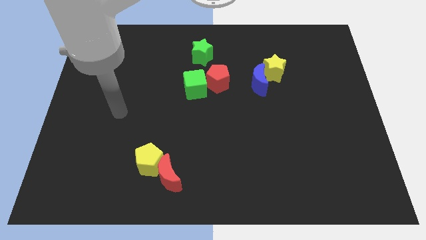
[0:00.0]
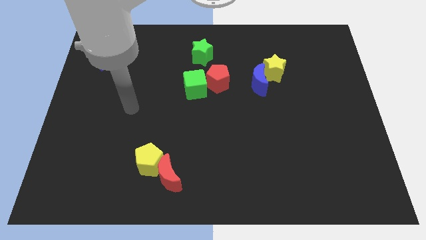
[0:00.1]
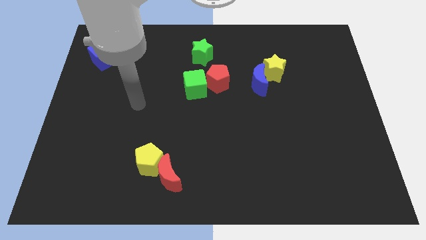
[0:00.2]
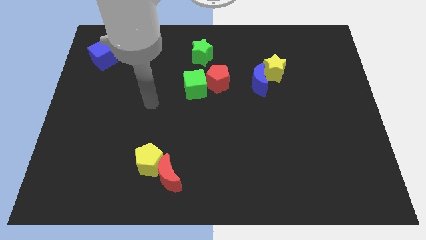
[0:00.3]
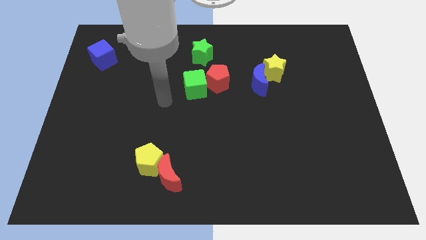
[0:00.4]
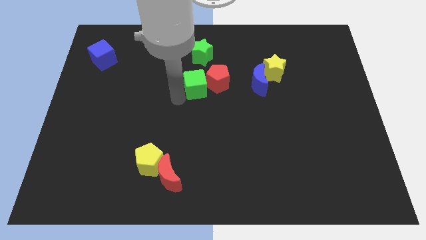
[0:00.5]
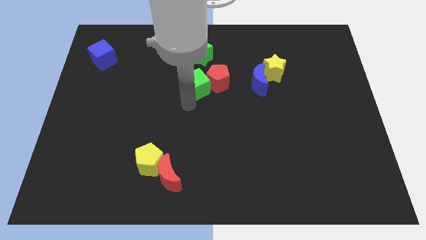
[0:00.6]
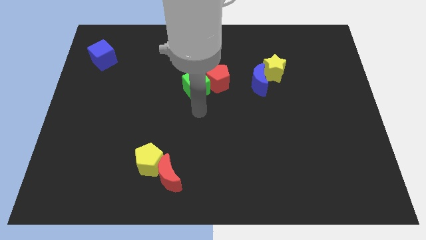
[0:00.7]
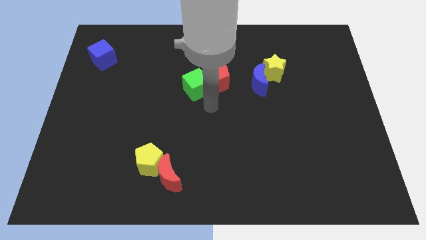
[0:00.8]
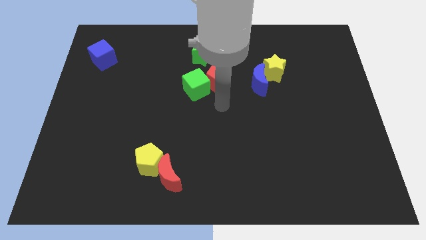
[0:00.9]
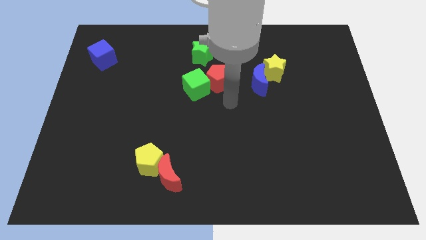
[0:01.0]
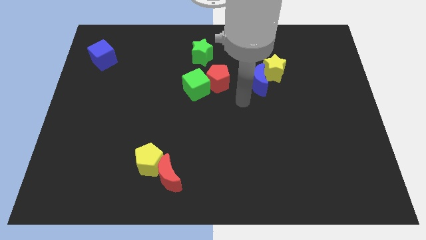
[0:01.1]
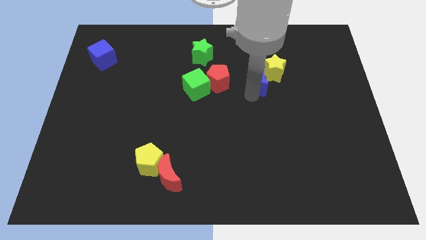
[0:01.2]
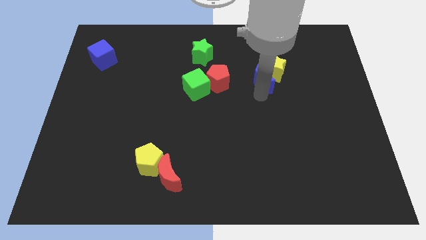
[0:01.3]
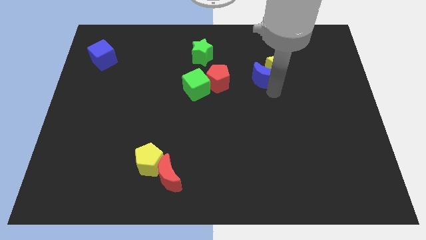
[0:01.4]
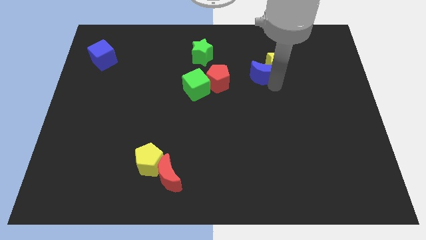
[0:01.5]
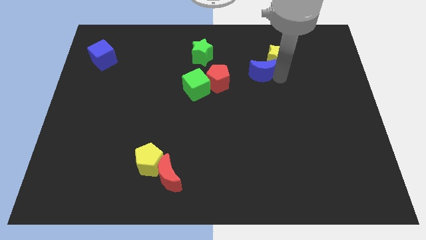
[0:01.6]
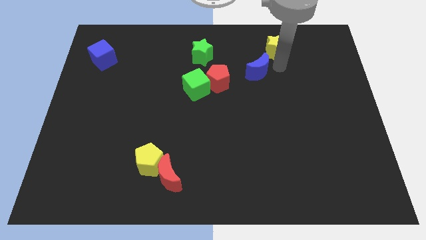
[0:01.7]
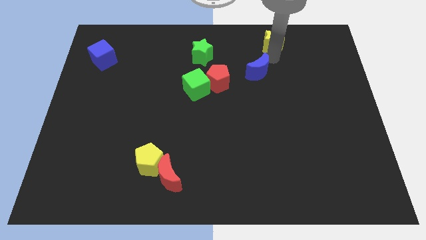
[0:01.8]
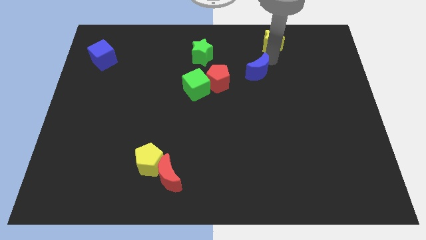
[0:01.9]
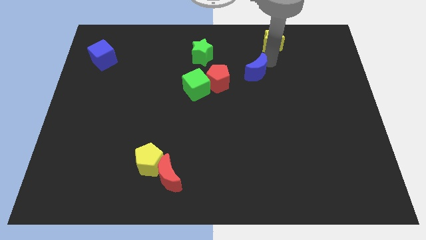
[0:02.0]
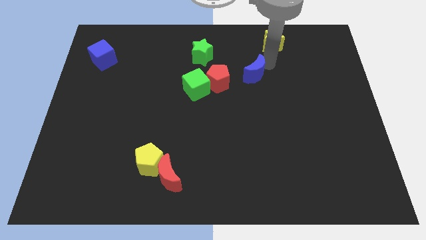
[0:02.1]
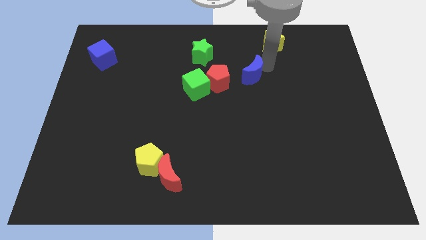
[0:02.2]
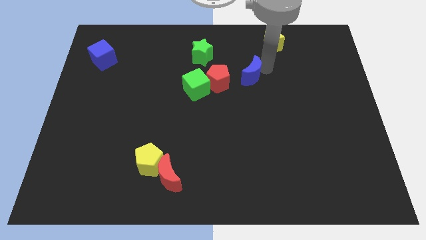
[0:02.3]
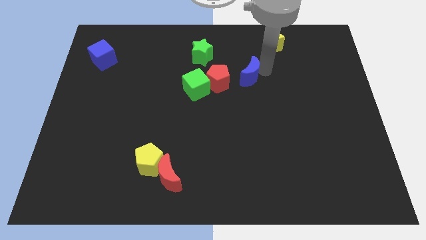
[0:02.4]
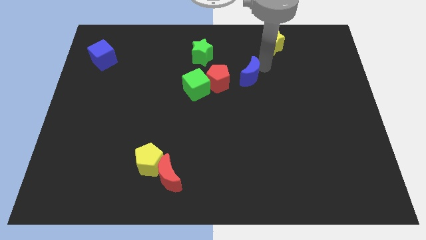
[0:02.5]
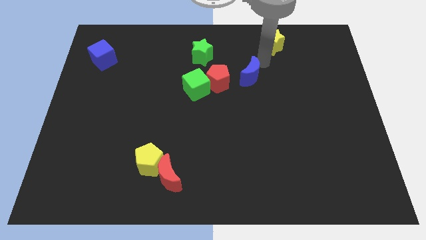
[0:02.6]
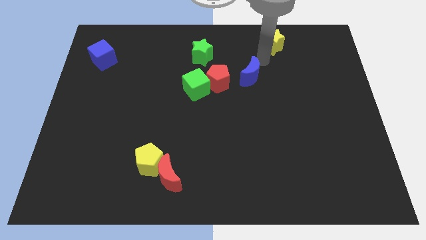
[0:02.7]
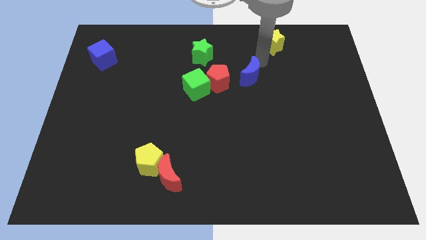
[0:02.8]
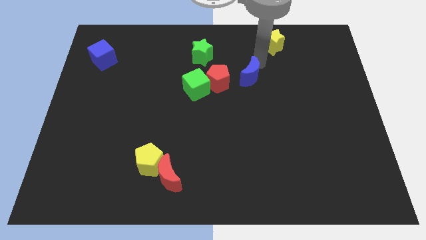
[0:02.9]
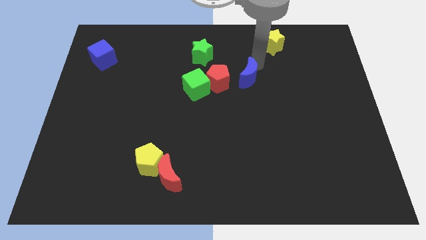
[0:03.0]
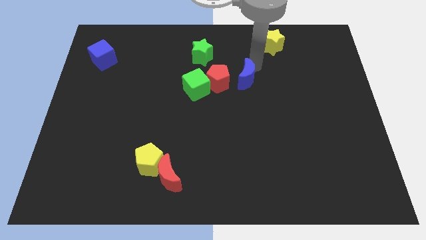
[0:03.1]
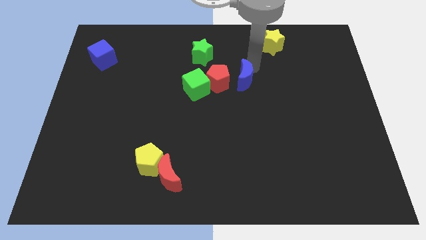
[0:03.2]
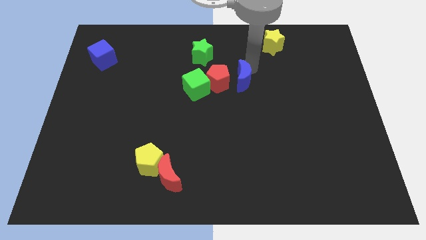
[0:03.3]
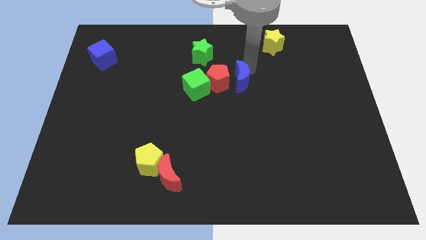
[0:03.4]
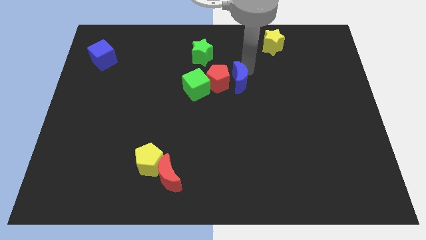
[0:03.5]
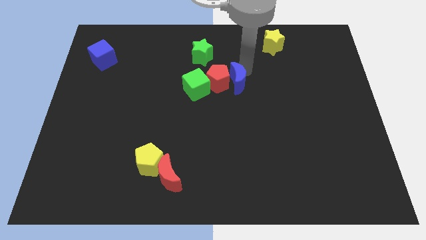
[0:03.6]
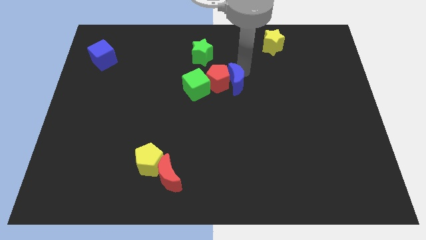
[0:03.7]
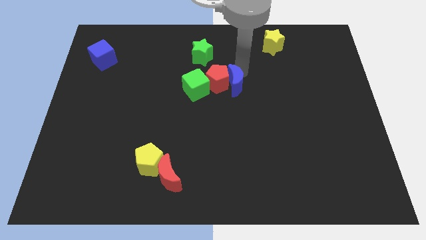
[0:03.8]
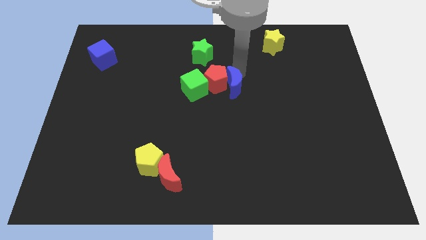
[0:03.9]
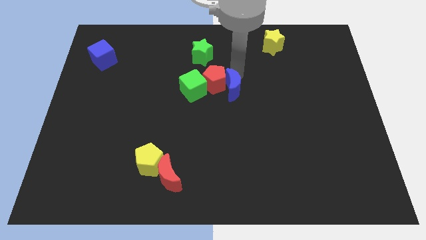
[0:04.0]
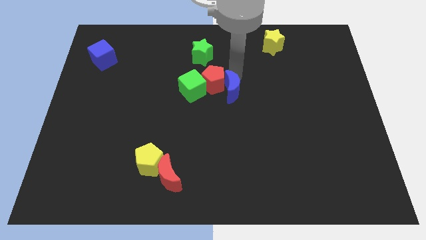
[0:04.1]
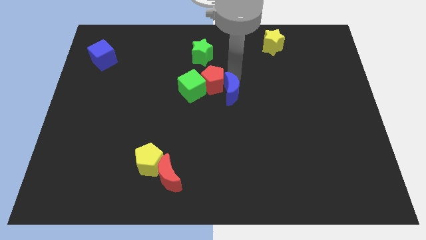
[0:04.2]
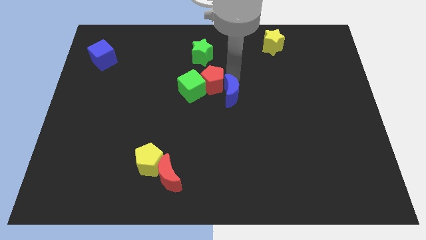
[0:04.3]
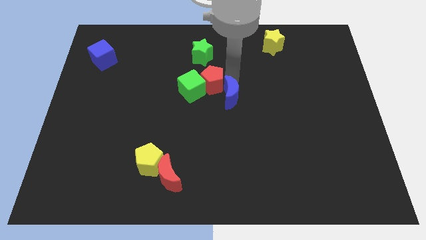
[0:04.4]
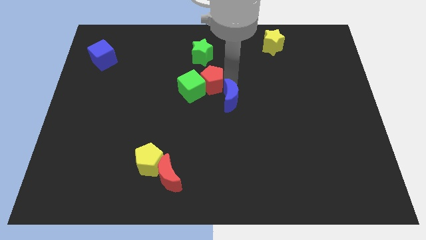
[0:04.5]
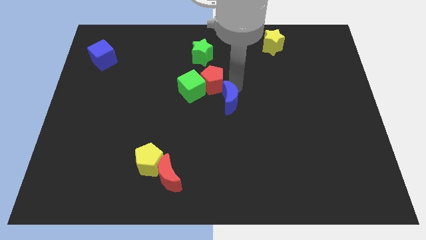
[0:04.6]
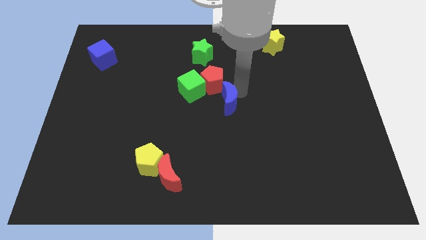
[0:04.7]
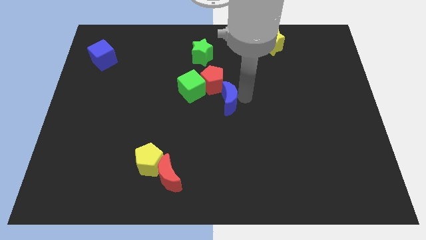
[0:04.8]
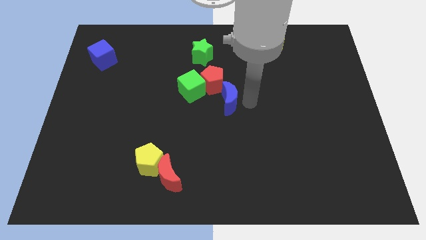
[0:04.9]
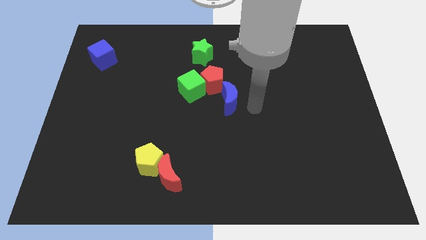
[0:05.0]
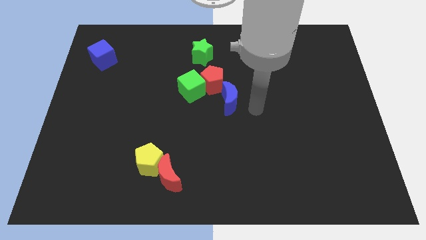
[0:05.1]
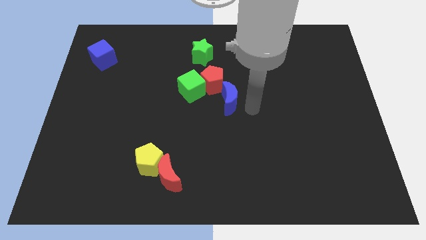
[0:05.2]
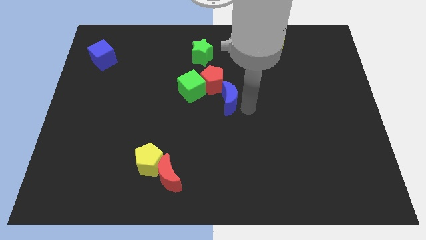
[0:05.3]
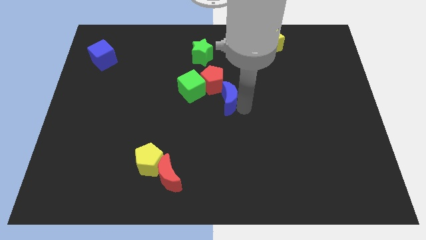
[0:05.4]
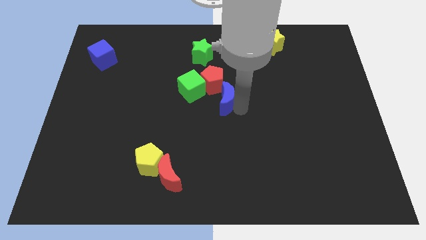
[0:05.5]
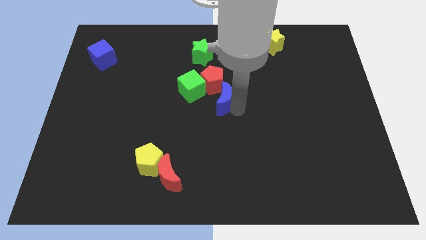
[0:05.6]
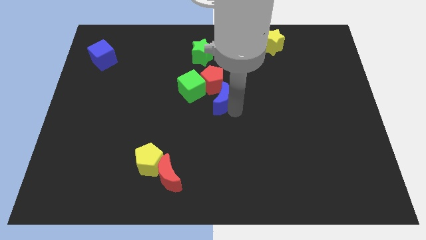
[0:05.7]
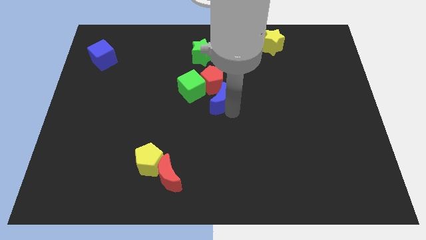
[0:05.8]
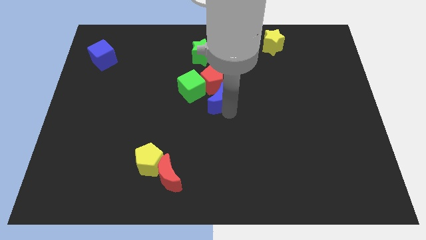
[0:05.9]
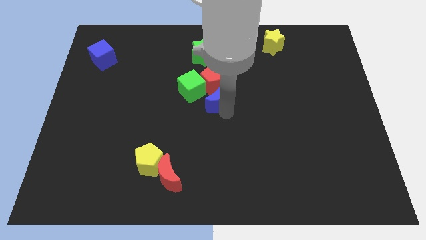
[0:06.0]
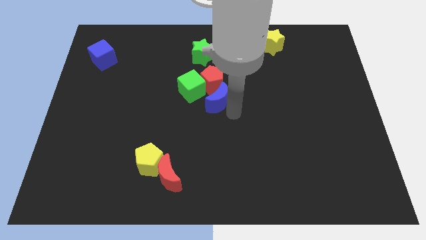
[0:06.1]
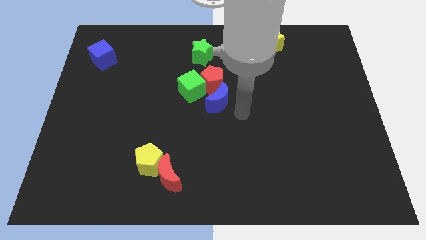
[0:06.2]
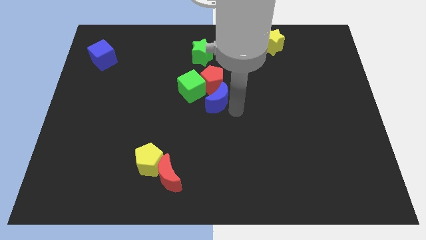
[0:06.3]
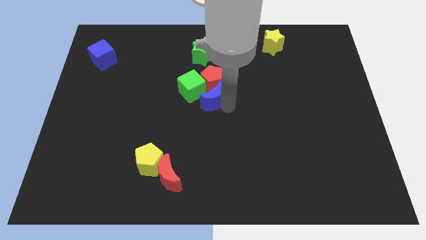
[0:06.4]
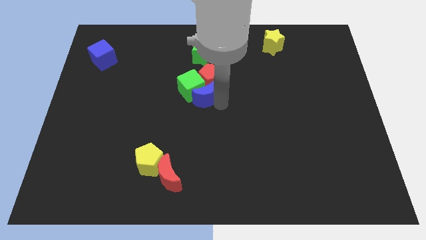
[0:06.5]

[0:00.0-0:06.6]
push the blue moon towards the green cube
